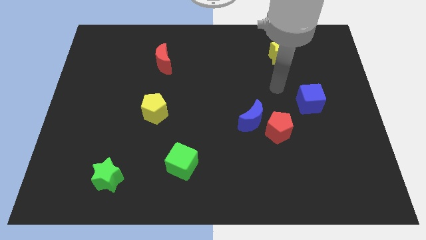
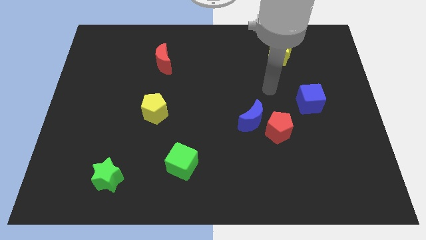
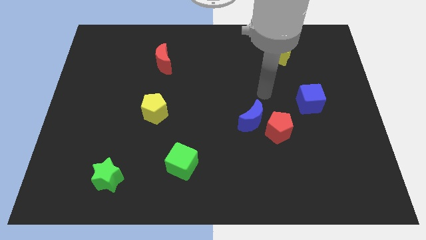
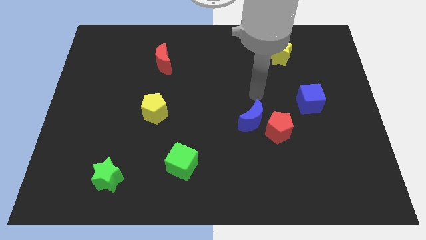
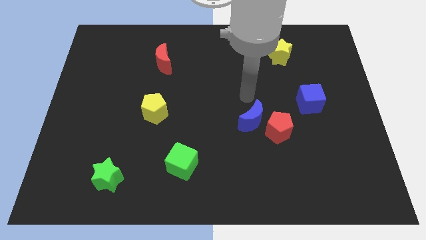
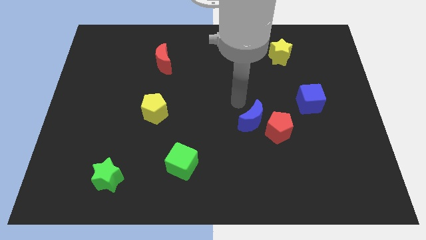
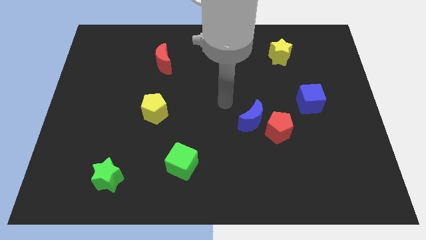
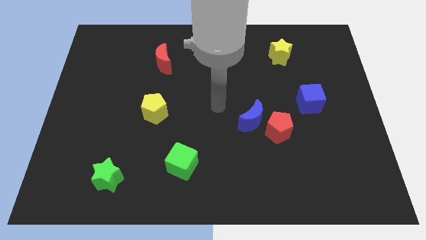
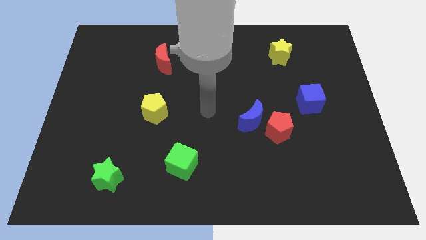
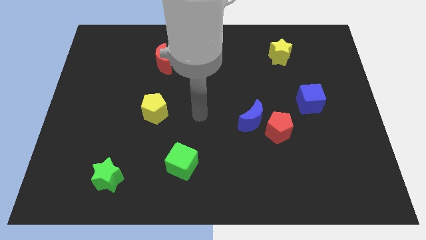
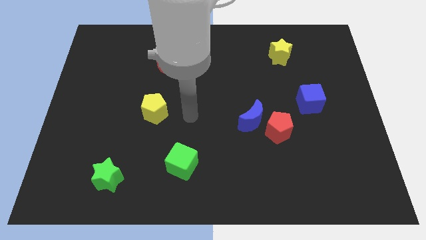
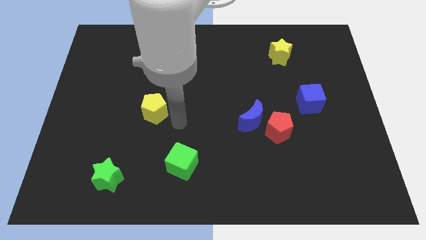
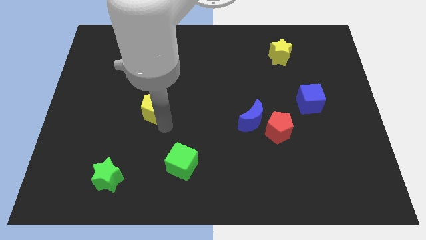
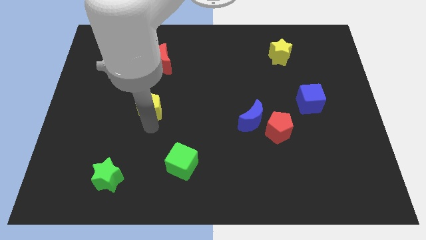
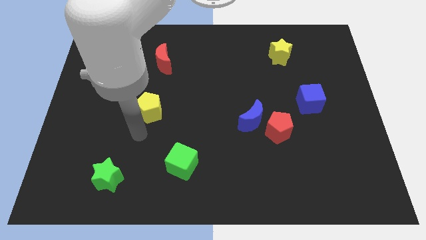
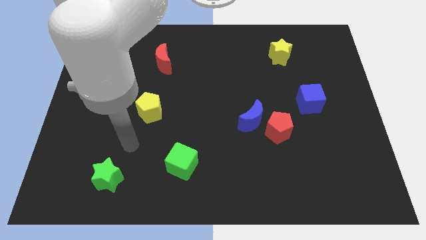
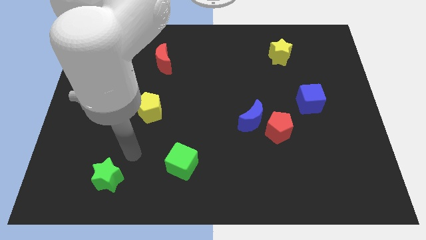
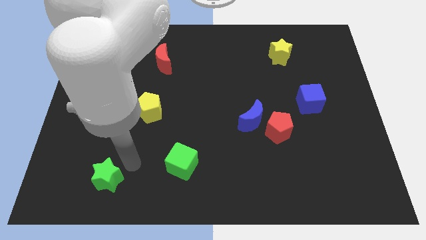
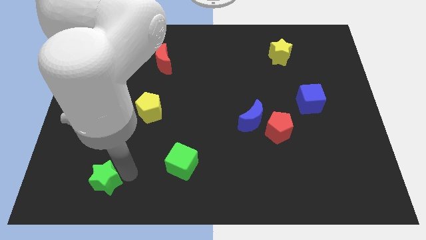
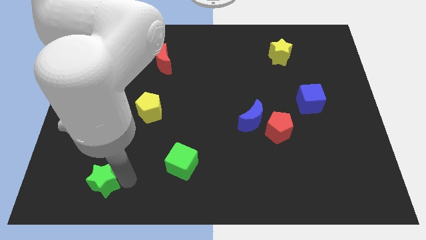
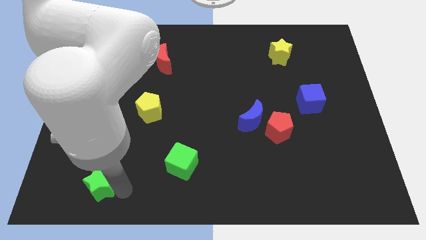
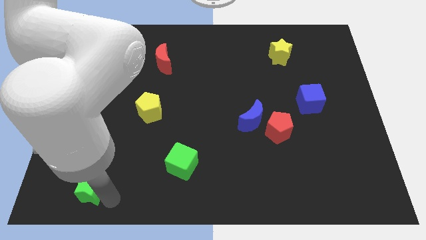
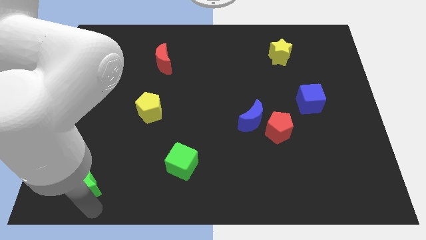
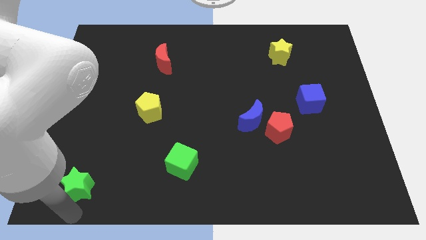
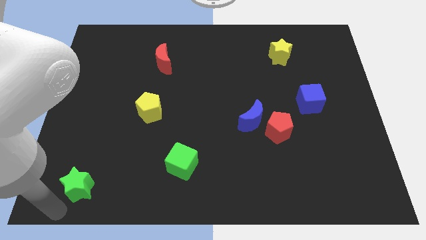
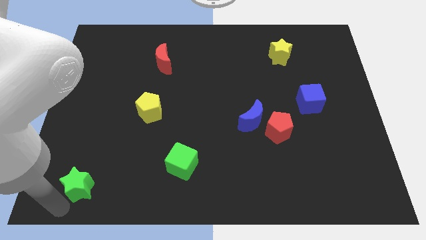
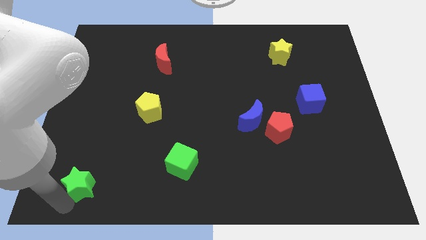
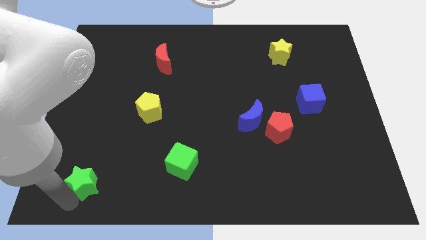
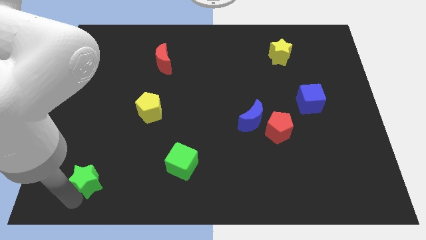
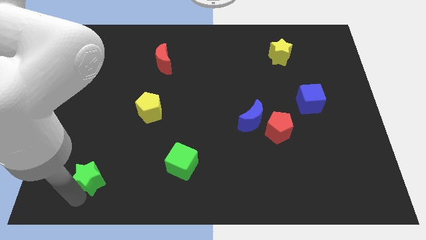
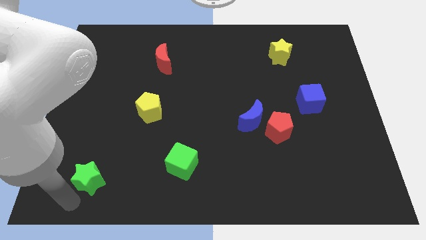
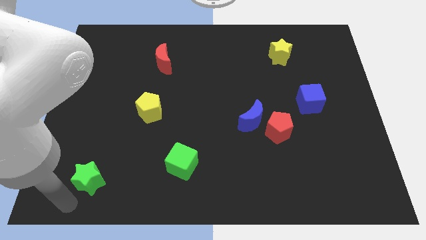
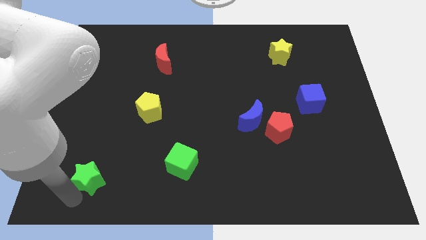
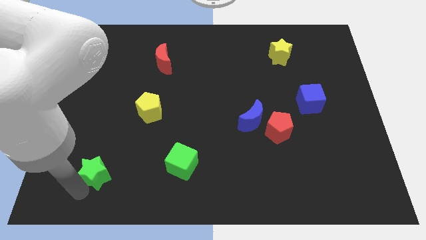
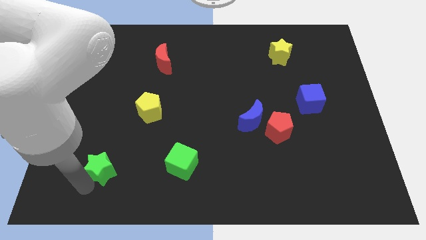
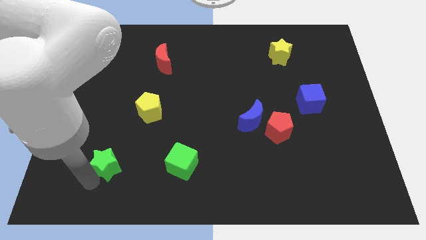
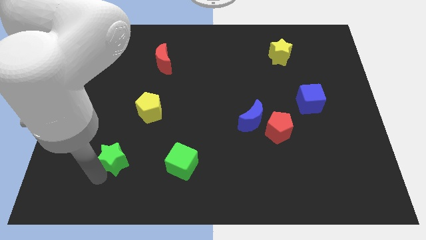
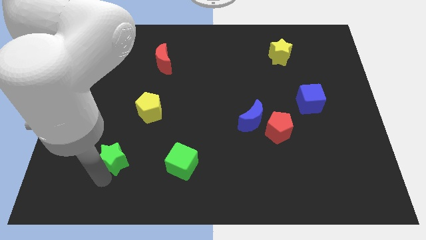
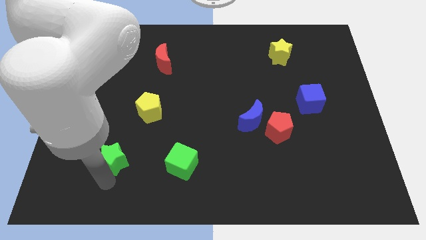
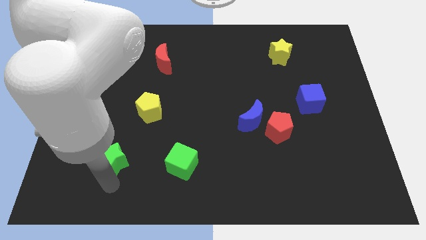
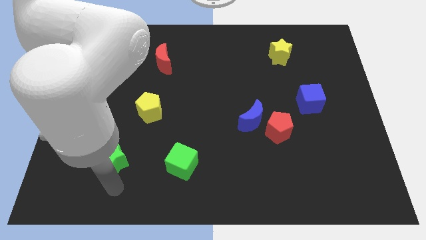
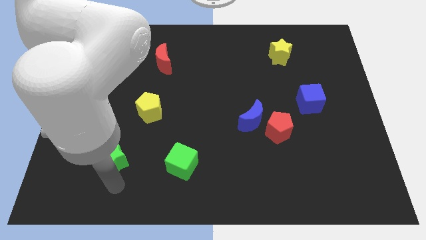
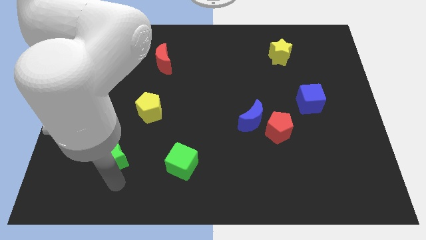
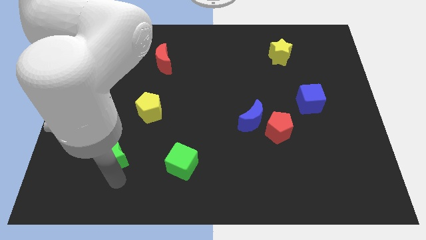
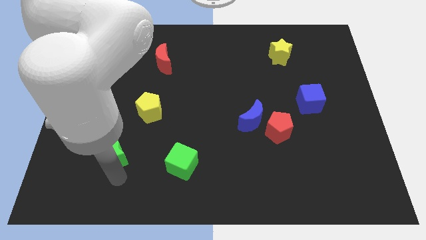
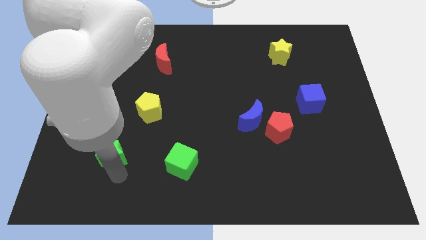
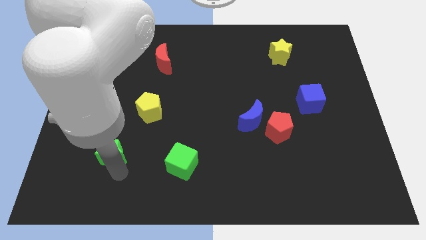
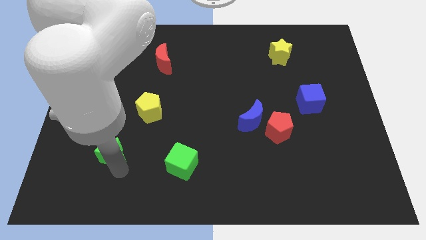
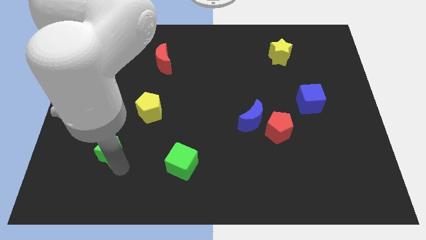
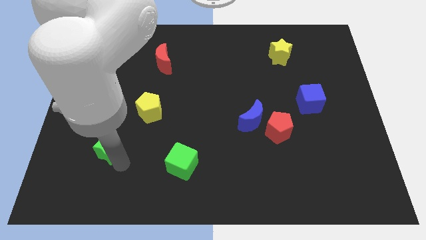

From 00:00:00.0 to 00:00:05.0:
slightly move the green star up

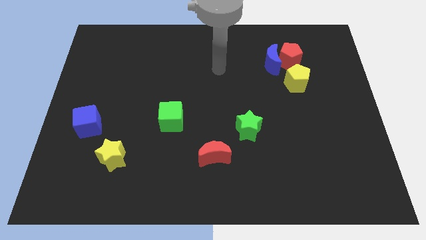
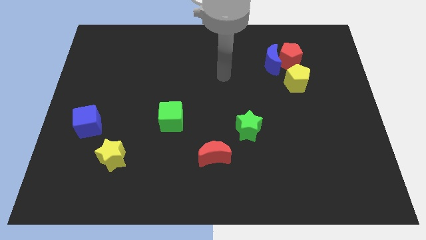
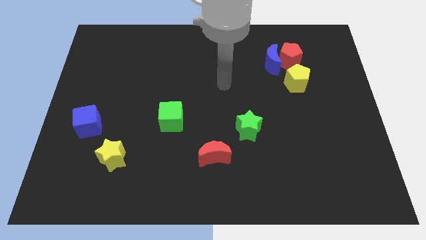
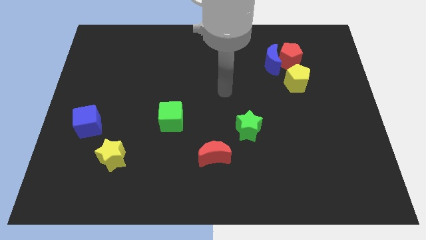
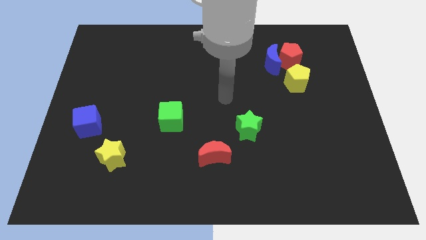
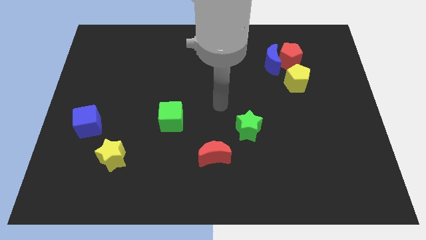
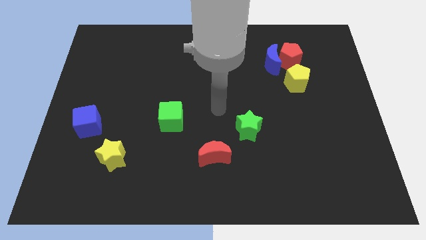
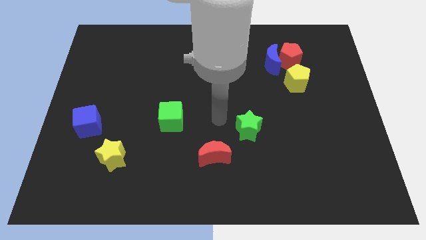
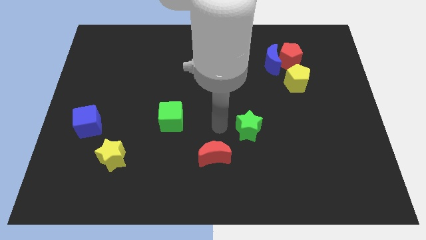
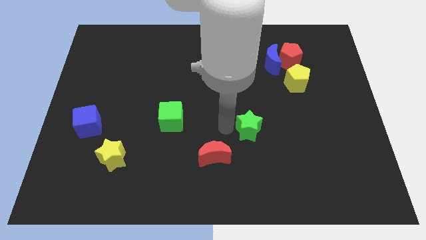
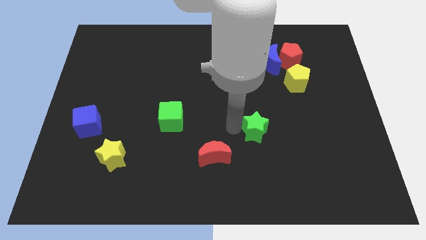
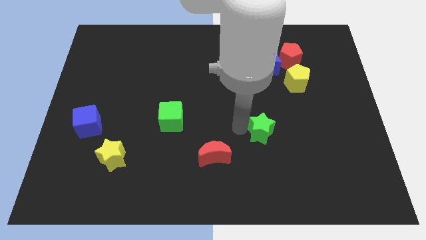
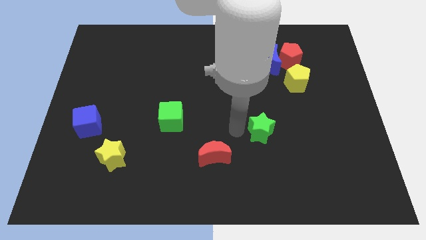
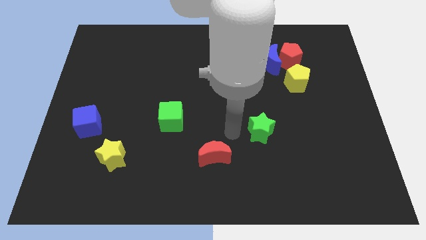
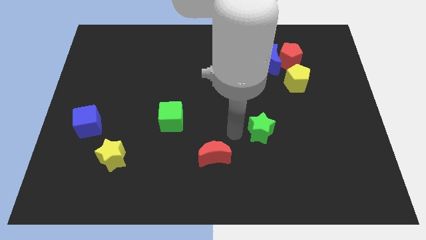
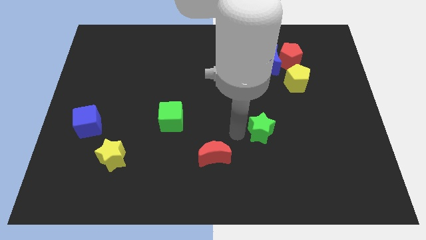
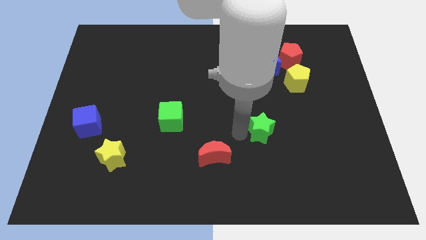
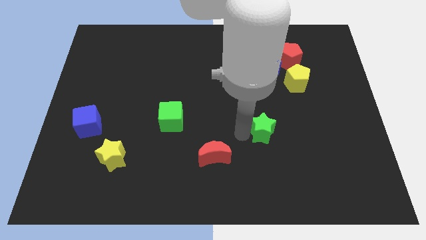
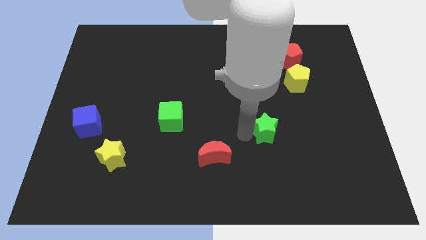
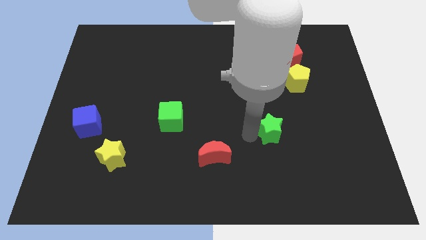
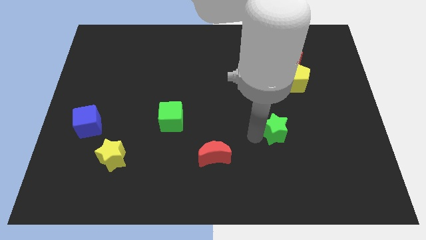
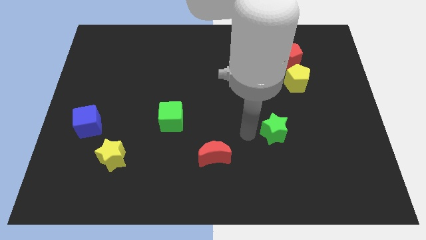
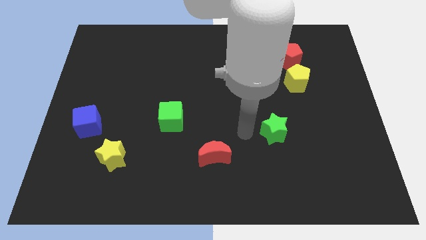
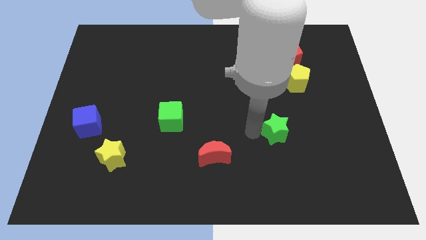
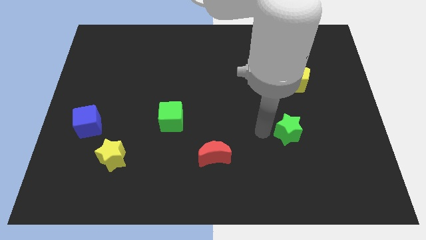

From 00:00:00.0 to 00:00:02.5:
move the green star to the right a bit

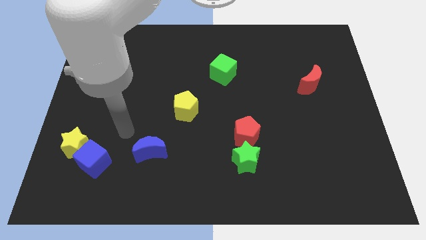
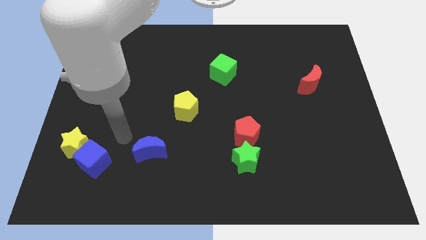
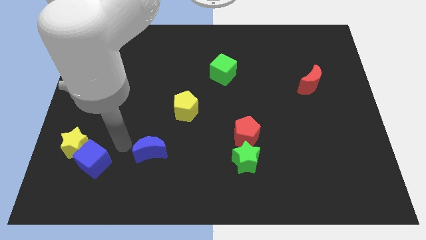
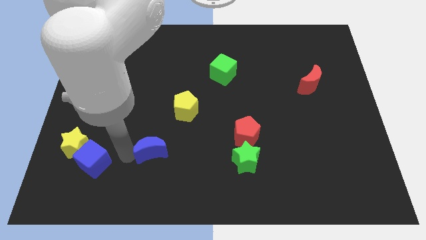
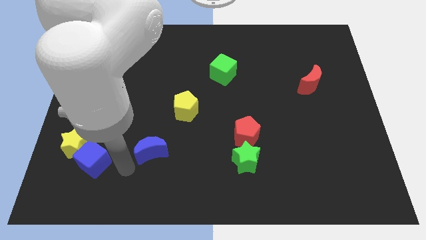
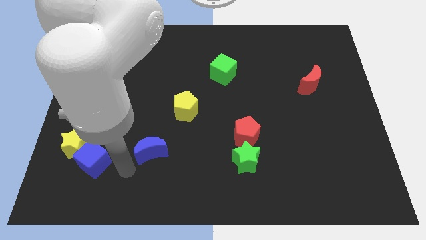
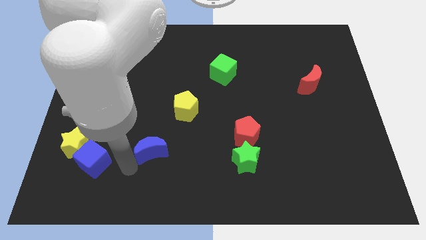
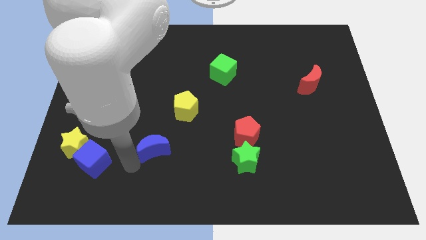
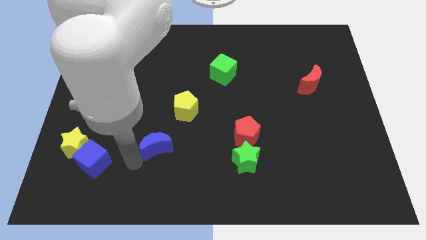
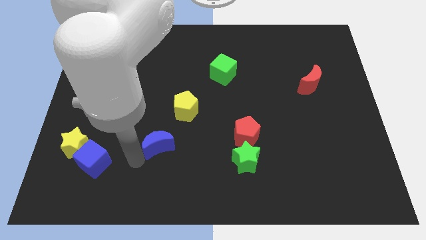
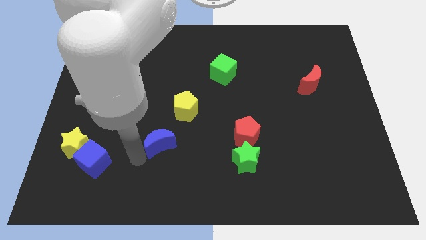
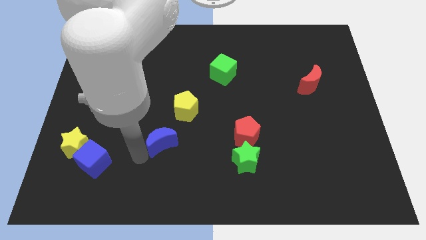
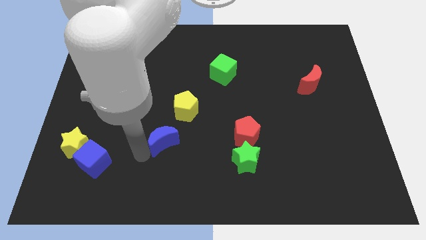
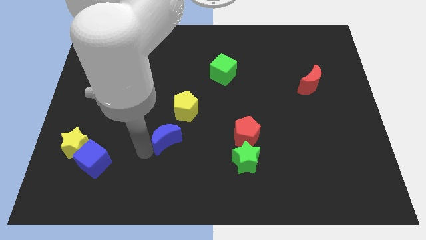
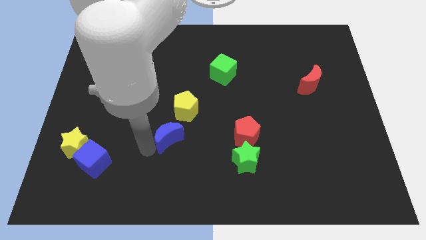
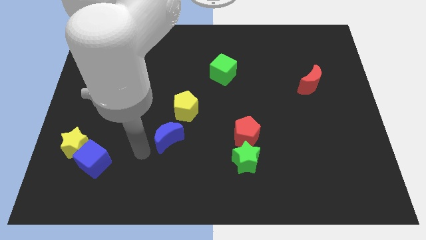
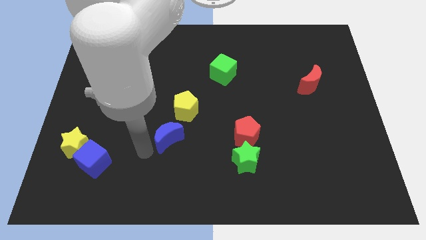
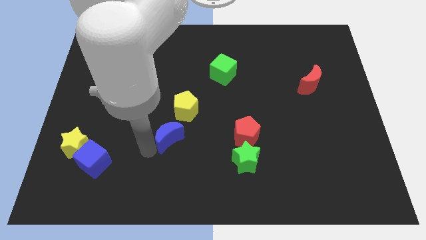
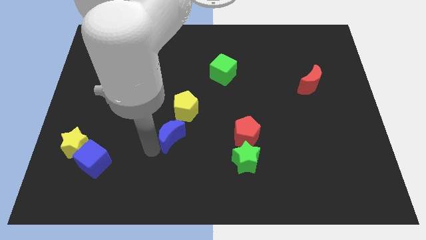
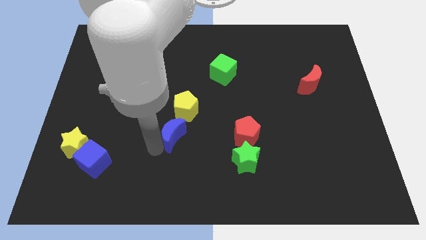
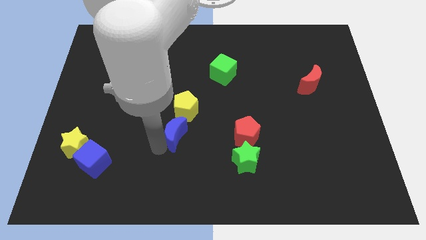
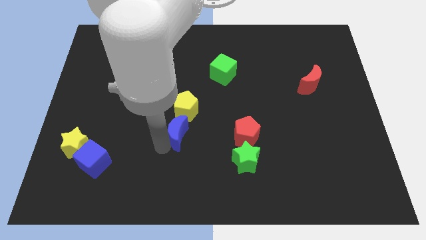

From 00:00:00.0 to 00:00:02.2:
slide the blue moon somewhat up and to the right
